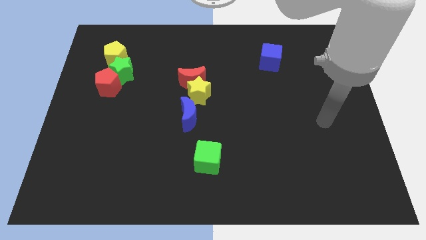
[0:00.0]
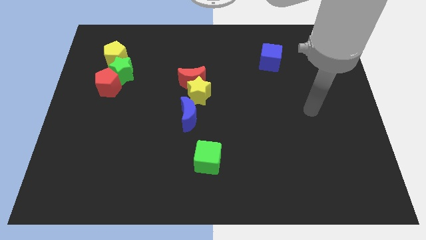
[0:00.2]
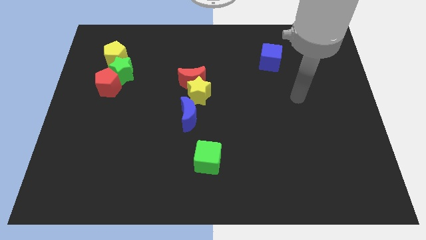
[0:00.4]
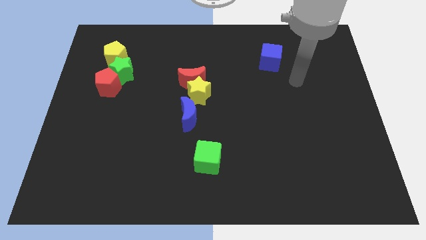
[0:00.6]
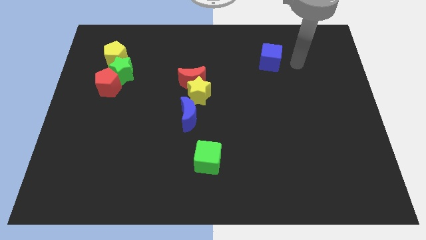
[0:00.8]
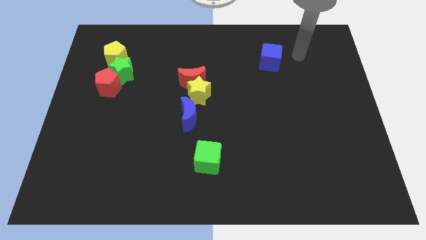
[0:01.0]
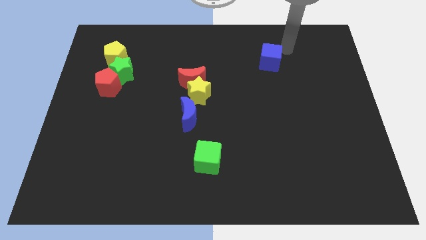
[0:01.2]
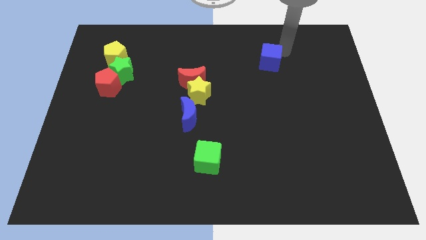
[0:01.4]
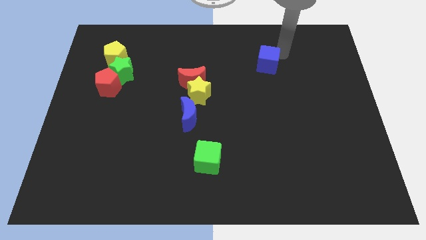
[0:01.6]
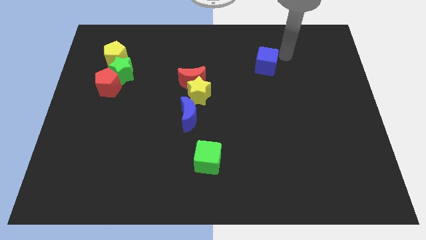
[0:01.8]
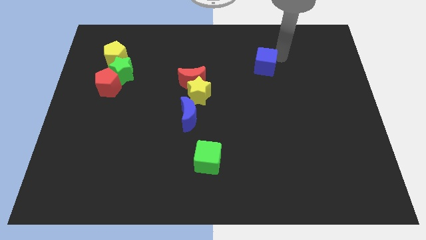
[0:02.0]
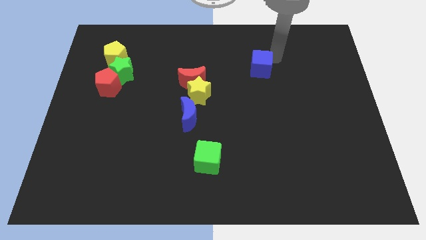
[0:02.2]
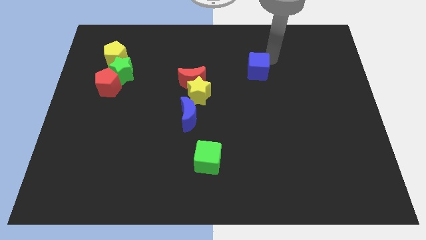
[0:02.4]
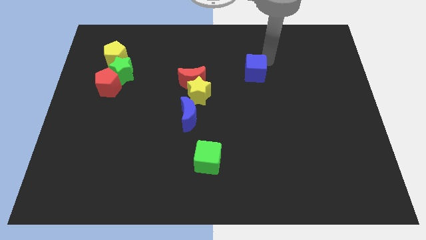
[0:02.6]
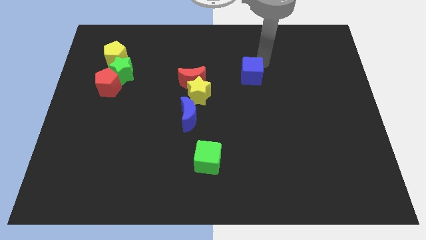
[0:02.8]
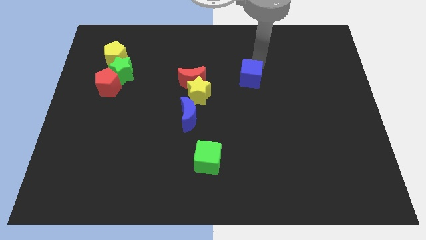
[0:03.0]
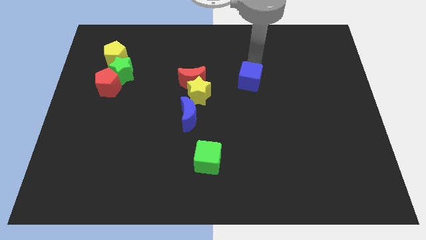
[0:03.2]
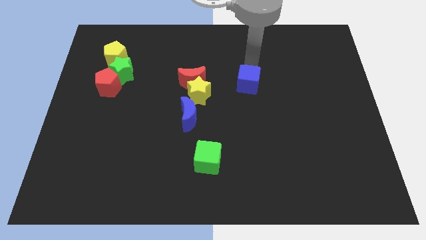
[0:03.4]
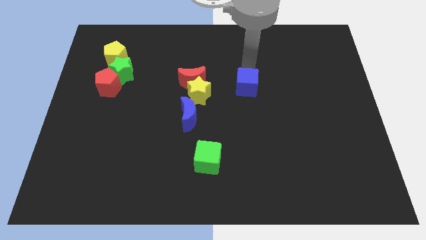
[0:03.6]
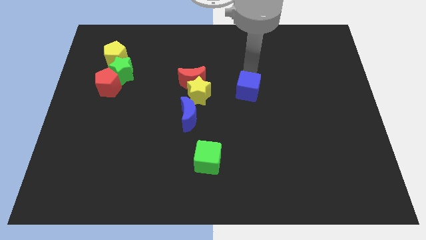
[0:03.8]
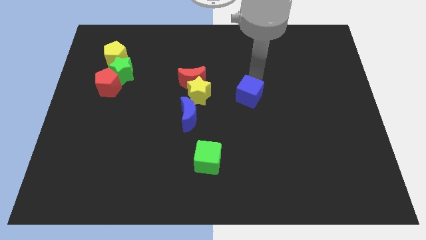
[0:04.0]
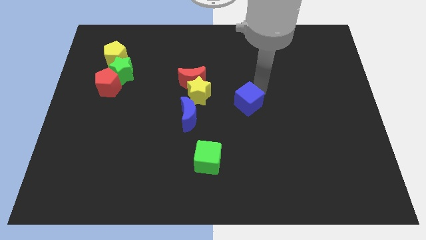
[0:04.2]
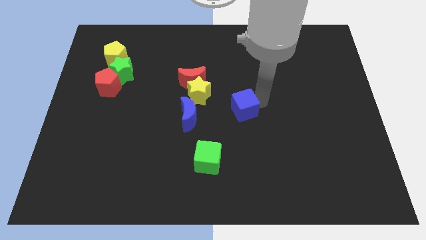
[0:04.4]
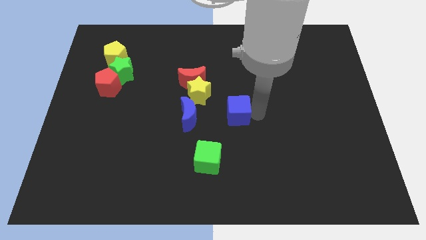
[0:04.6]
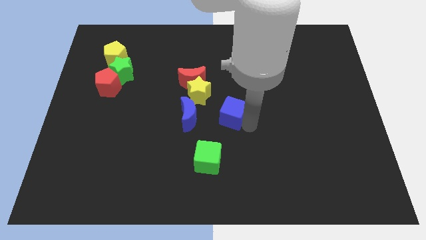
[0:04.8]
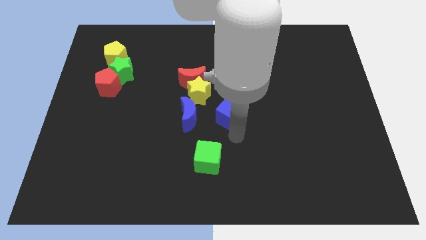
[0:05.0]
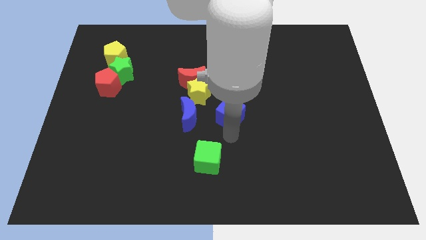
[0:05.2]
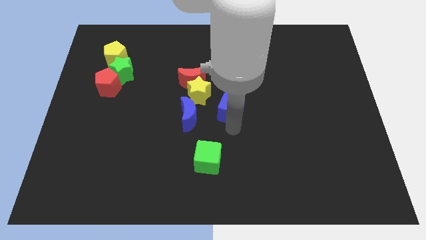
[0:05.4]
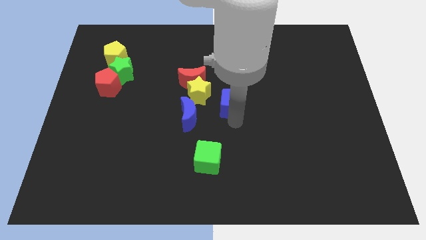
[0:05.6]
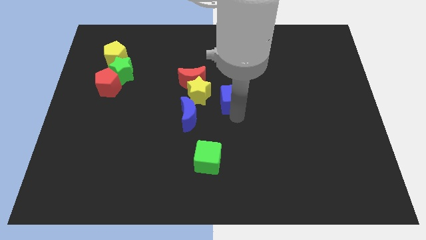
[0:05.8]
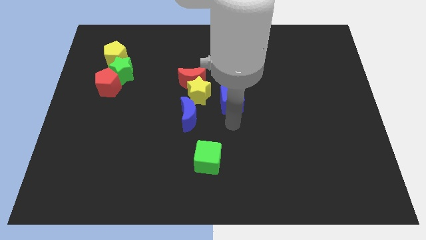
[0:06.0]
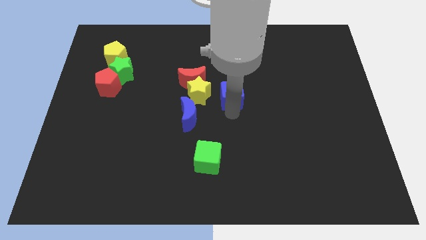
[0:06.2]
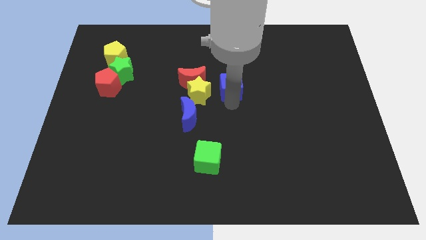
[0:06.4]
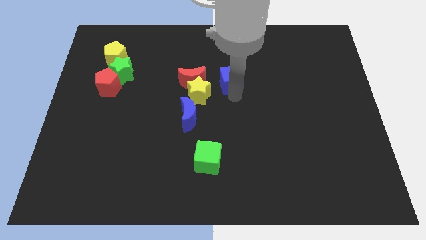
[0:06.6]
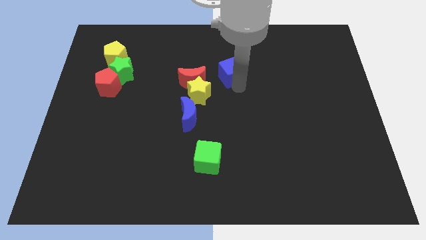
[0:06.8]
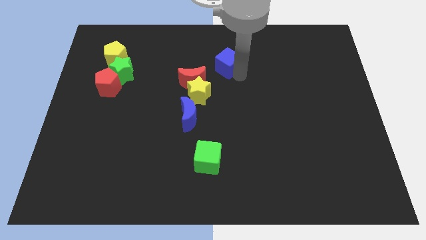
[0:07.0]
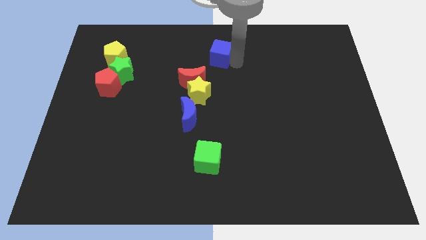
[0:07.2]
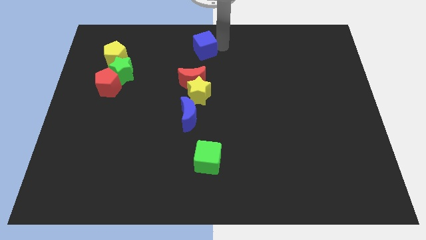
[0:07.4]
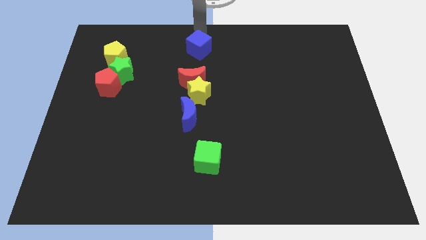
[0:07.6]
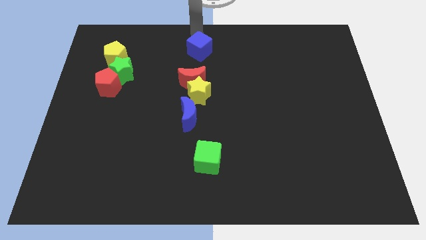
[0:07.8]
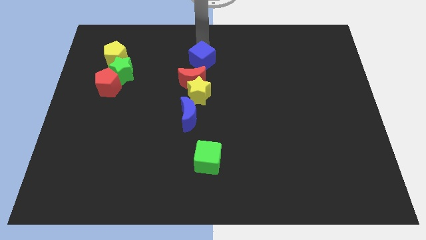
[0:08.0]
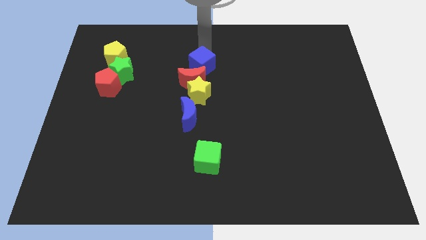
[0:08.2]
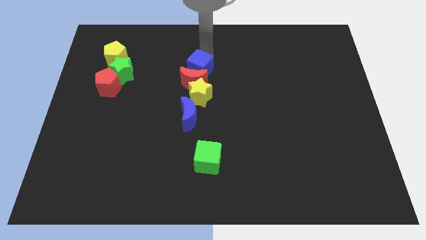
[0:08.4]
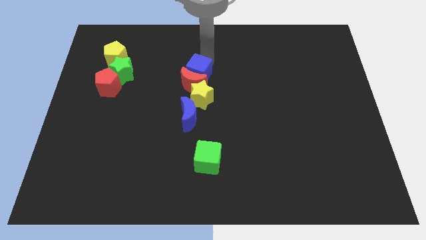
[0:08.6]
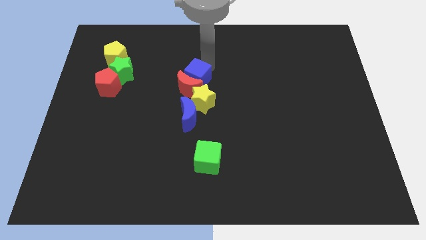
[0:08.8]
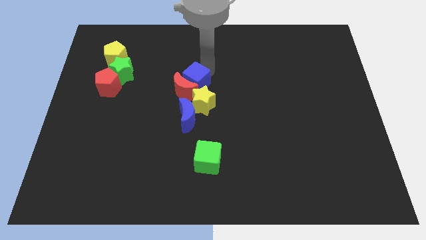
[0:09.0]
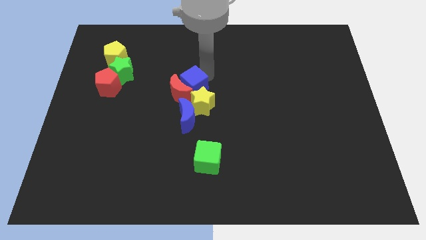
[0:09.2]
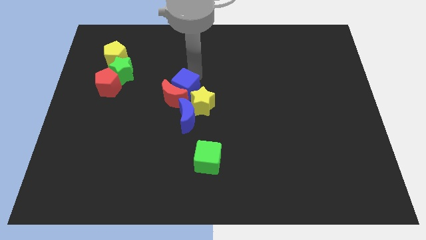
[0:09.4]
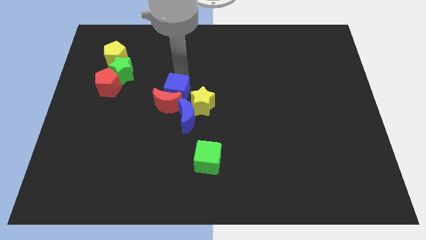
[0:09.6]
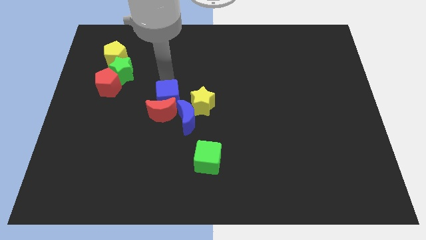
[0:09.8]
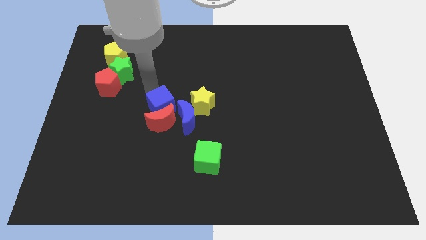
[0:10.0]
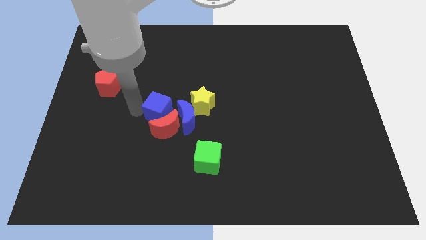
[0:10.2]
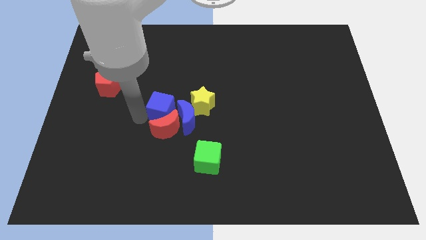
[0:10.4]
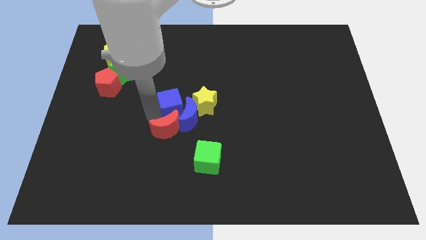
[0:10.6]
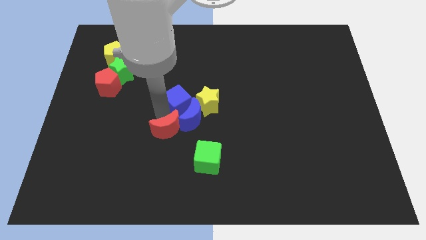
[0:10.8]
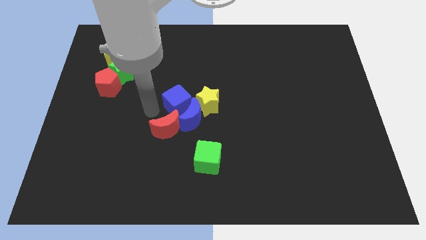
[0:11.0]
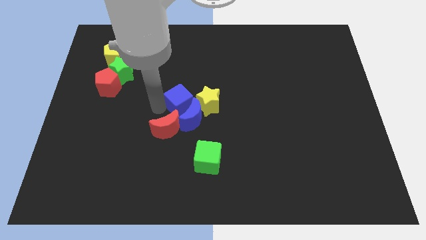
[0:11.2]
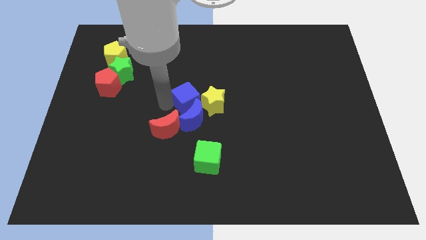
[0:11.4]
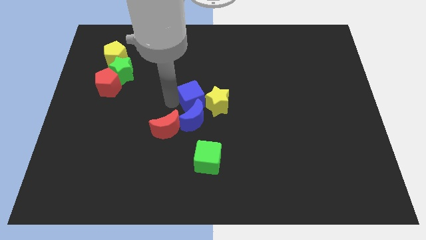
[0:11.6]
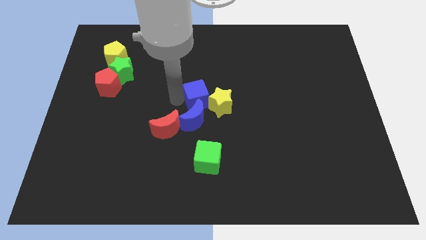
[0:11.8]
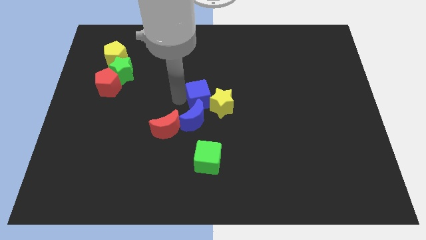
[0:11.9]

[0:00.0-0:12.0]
move the blue cube to the yellow star

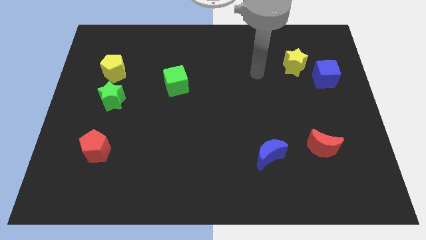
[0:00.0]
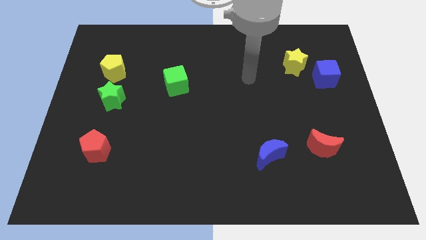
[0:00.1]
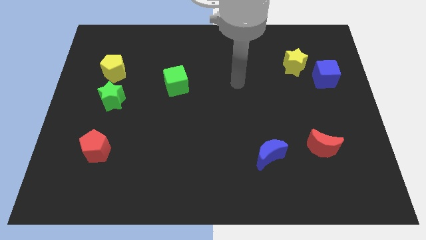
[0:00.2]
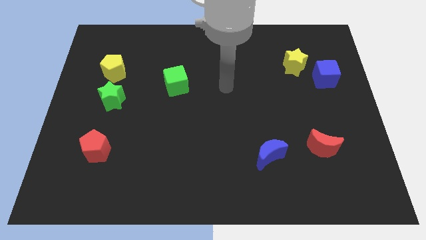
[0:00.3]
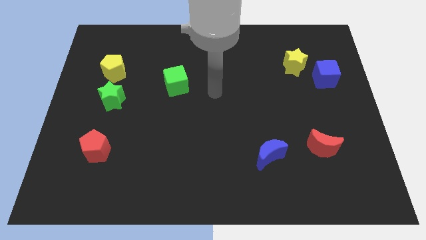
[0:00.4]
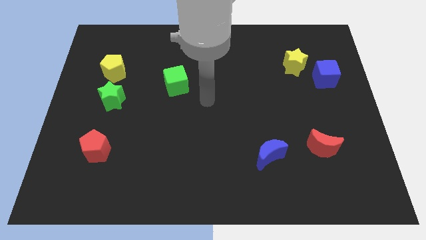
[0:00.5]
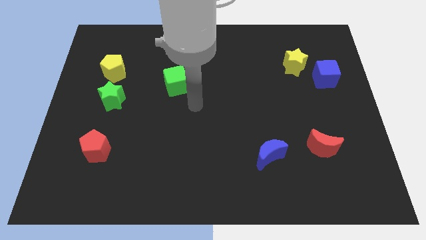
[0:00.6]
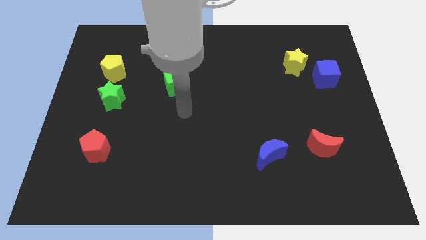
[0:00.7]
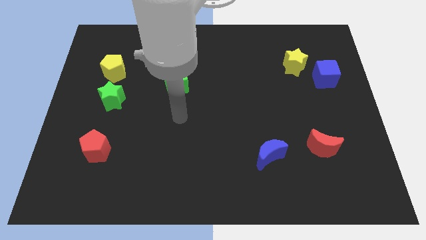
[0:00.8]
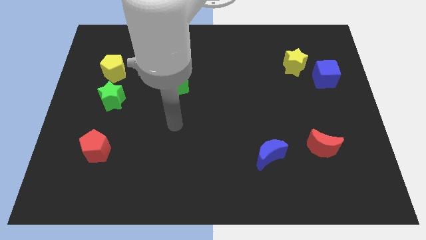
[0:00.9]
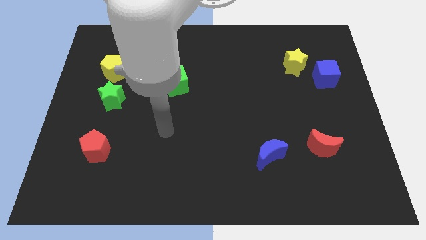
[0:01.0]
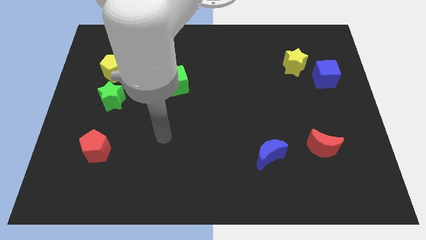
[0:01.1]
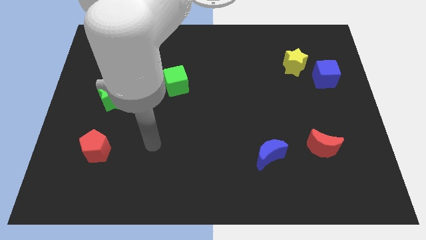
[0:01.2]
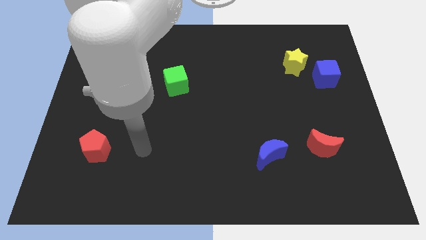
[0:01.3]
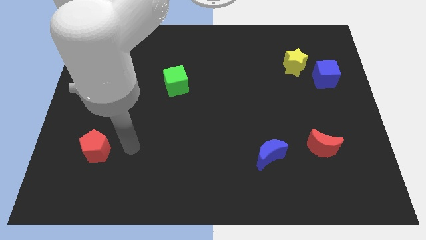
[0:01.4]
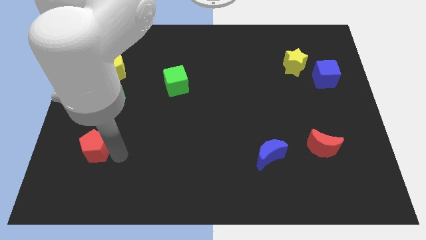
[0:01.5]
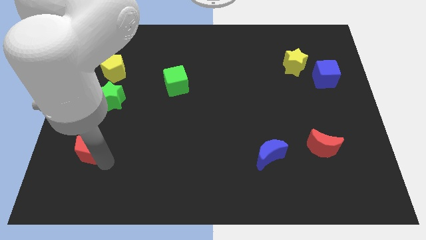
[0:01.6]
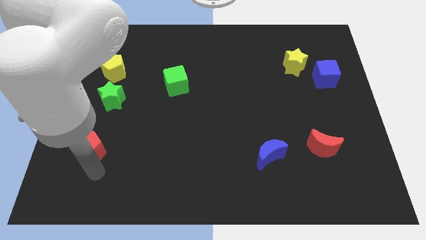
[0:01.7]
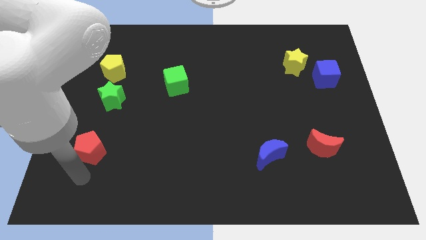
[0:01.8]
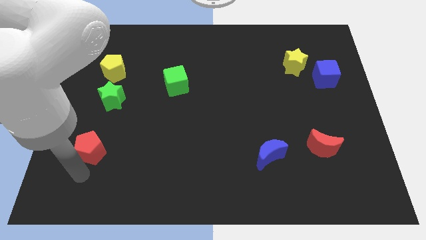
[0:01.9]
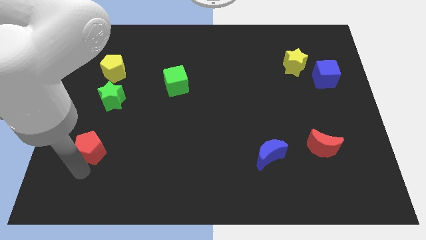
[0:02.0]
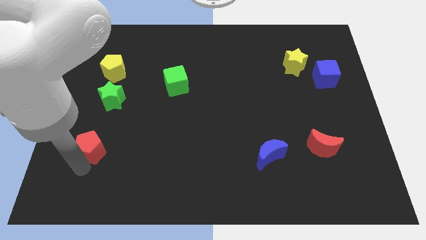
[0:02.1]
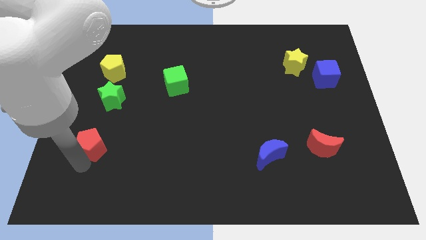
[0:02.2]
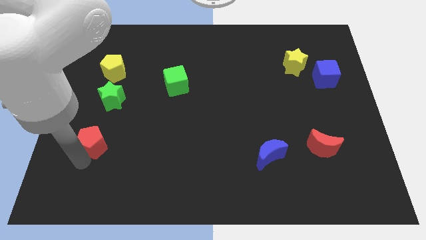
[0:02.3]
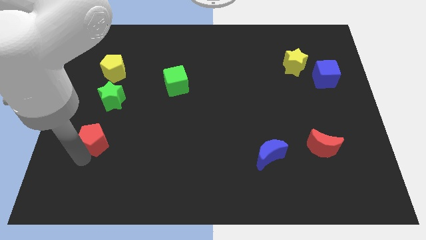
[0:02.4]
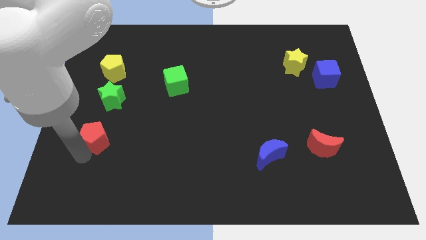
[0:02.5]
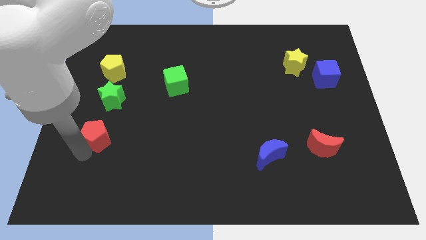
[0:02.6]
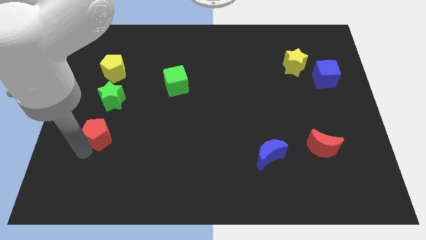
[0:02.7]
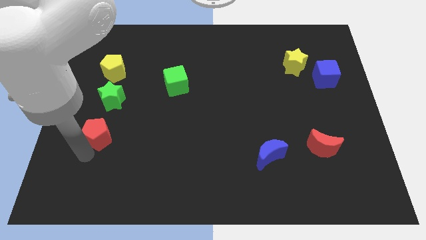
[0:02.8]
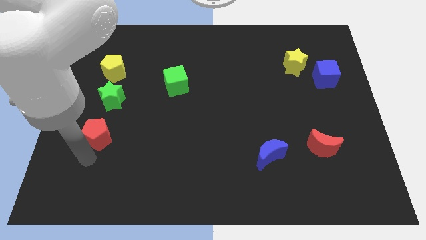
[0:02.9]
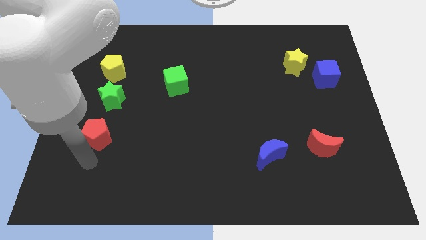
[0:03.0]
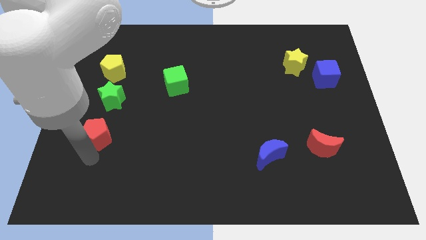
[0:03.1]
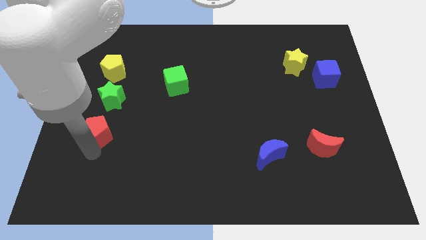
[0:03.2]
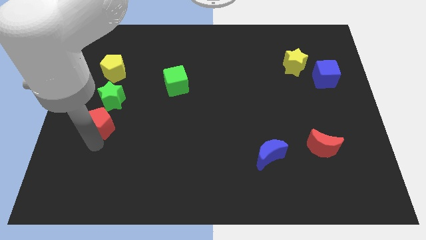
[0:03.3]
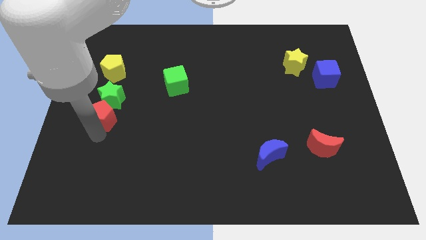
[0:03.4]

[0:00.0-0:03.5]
push the red pentagon close to the green star
